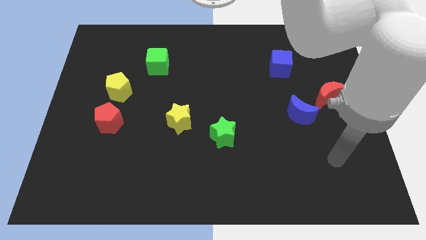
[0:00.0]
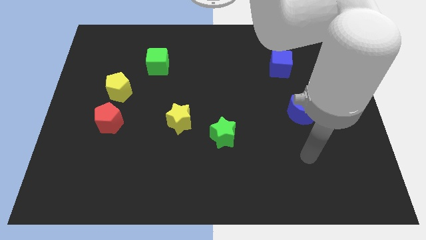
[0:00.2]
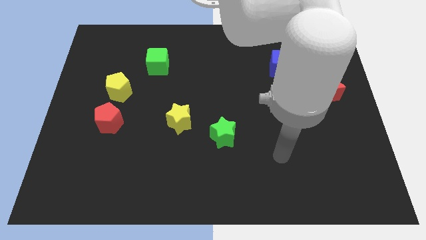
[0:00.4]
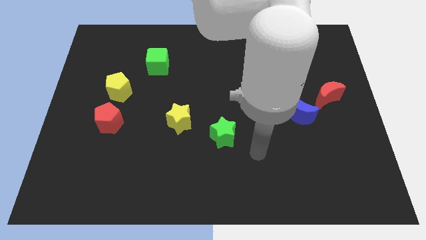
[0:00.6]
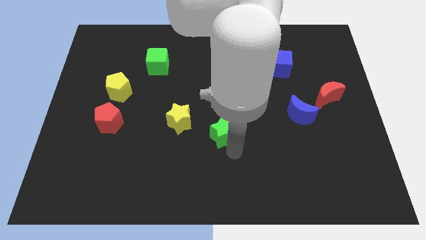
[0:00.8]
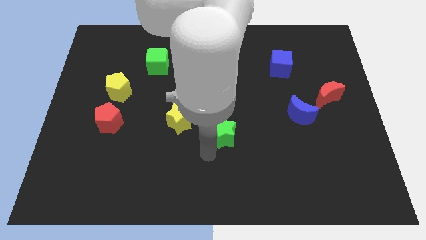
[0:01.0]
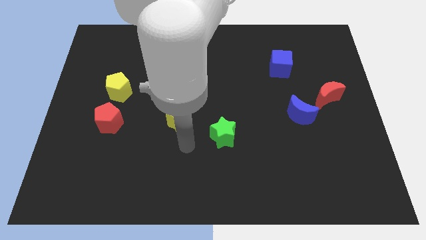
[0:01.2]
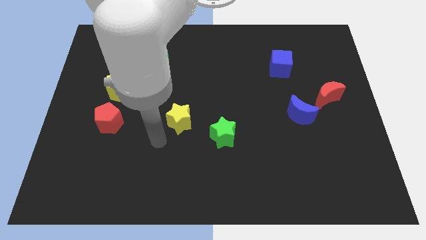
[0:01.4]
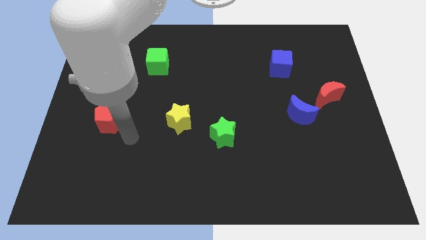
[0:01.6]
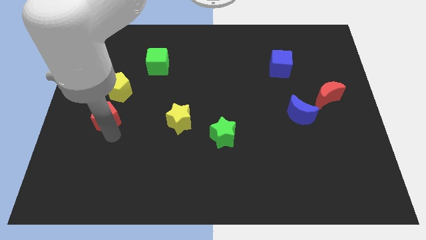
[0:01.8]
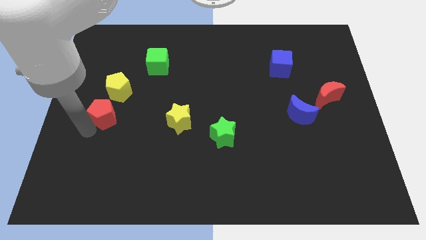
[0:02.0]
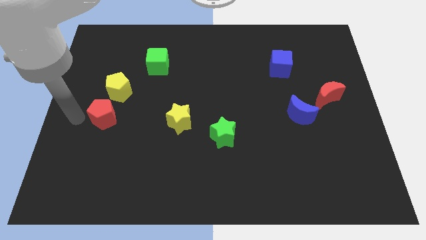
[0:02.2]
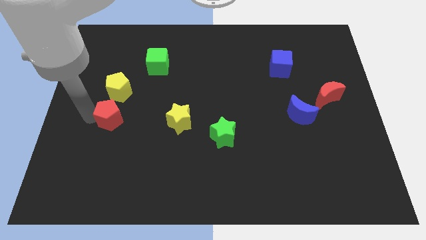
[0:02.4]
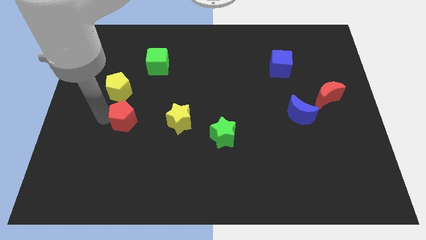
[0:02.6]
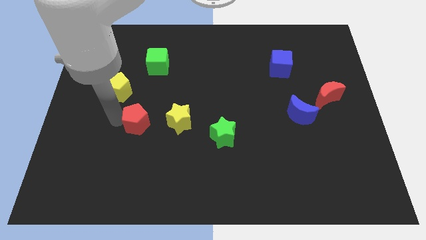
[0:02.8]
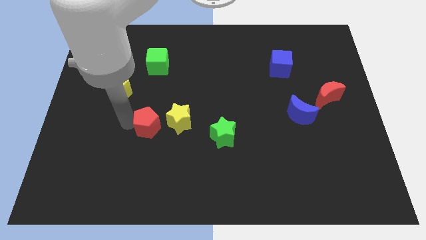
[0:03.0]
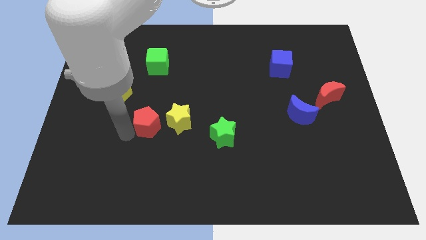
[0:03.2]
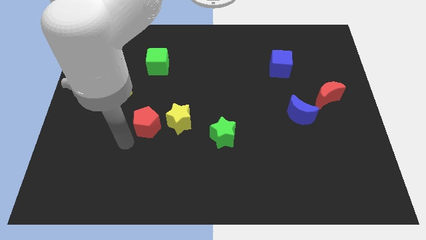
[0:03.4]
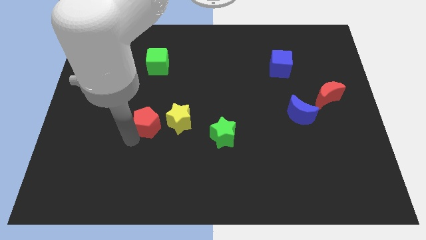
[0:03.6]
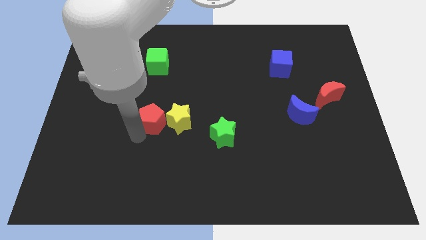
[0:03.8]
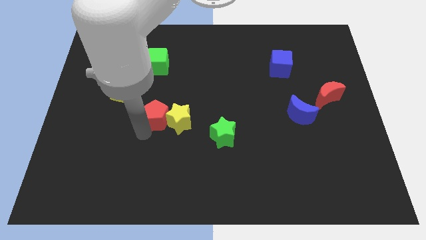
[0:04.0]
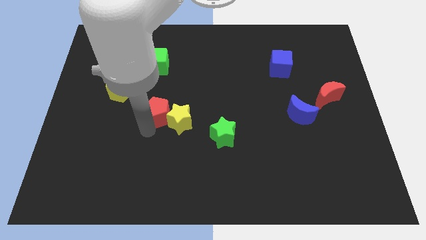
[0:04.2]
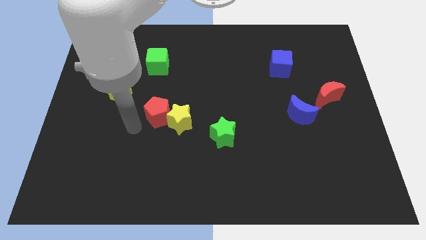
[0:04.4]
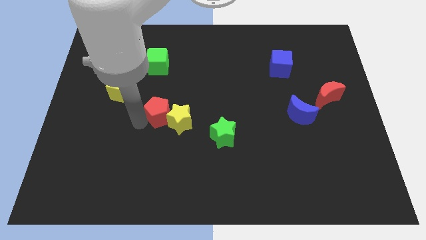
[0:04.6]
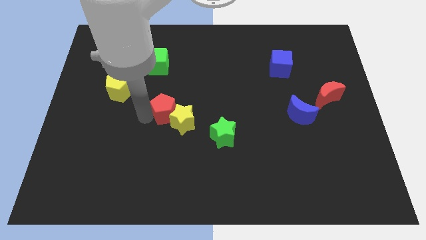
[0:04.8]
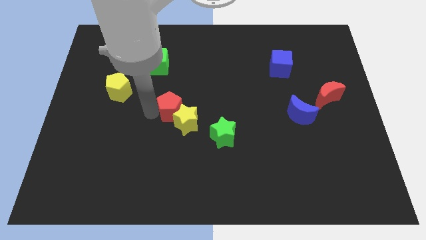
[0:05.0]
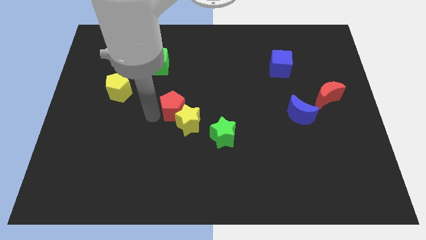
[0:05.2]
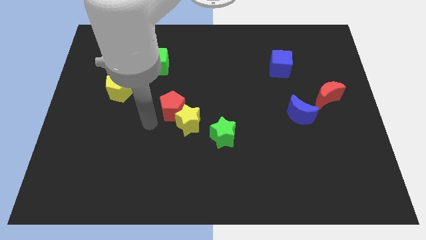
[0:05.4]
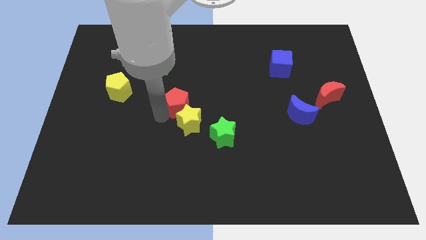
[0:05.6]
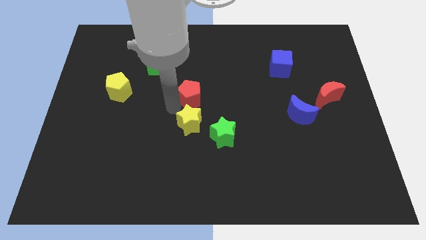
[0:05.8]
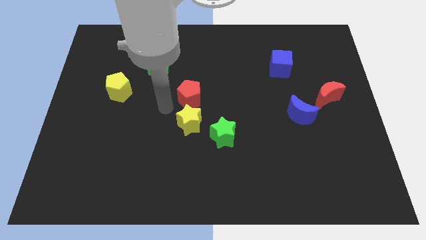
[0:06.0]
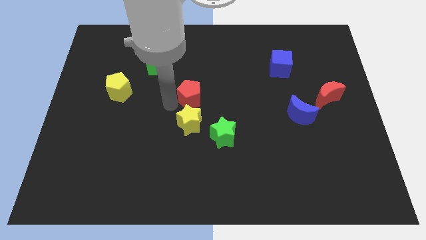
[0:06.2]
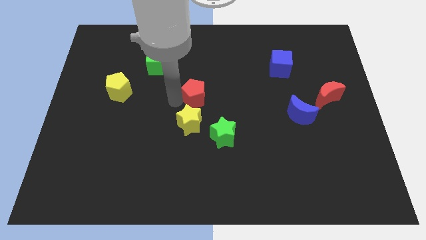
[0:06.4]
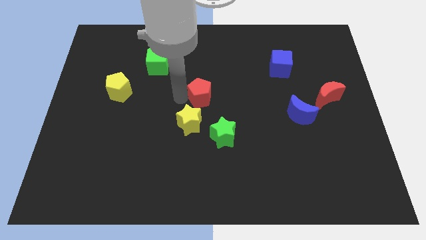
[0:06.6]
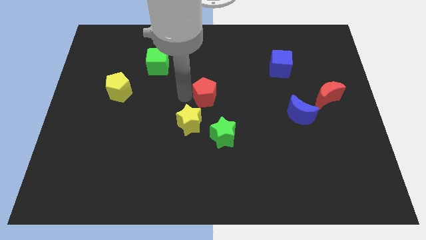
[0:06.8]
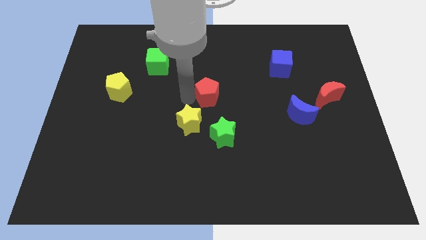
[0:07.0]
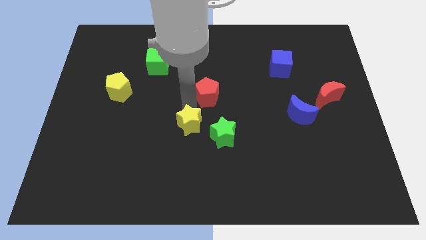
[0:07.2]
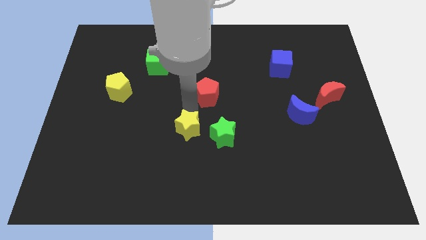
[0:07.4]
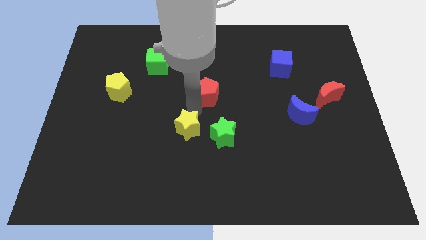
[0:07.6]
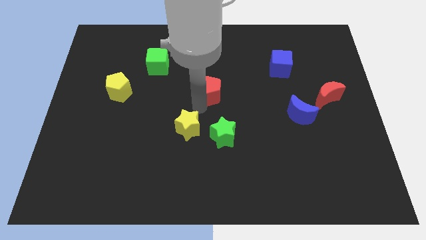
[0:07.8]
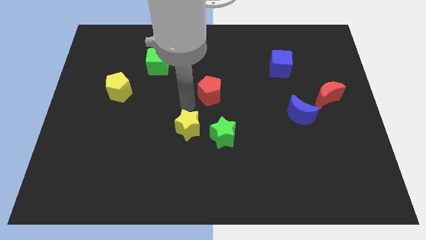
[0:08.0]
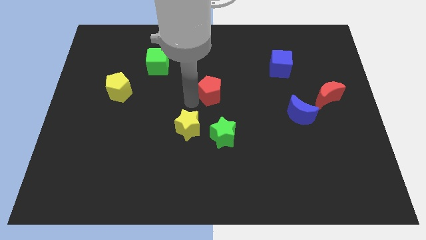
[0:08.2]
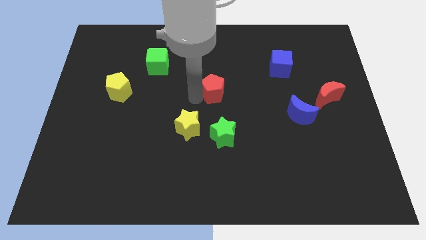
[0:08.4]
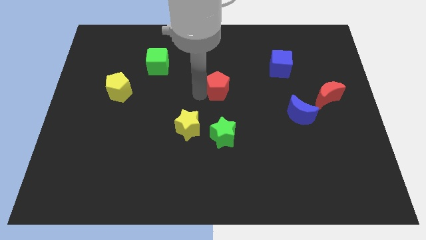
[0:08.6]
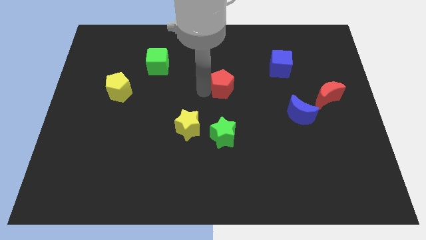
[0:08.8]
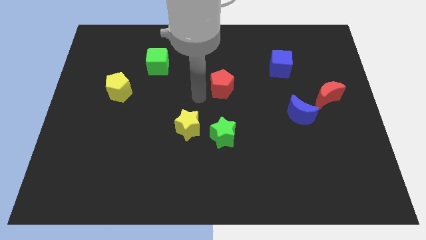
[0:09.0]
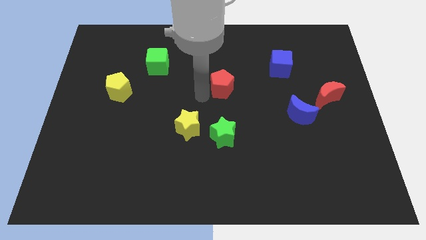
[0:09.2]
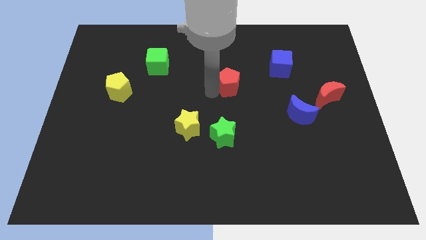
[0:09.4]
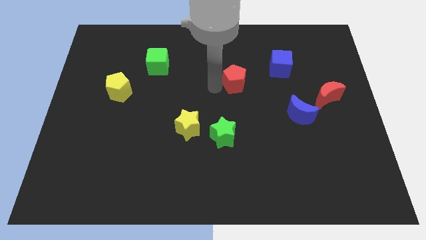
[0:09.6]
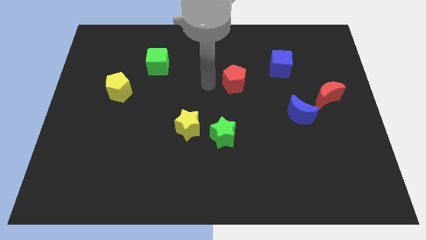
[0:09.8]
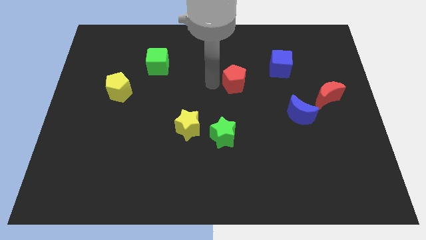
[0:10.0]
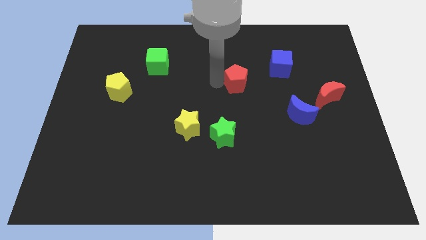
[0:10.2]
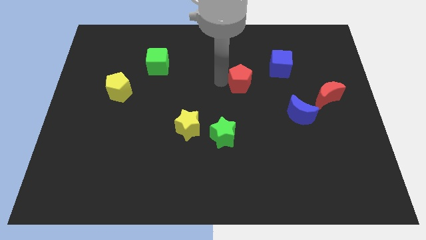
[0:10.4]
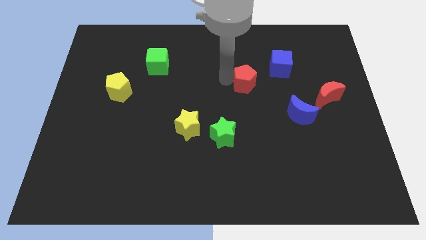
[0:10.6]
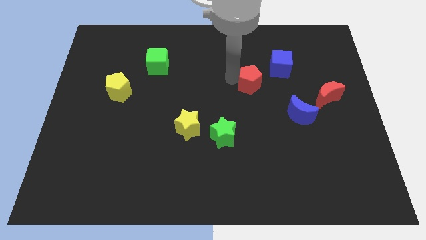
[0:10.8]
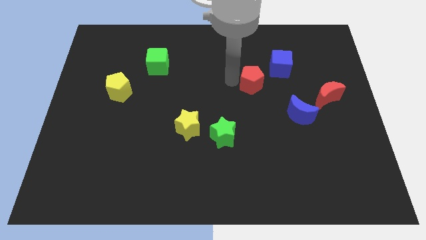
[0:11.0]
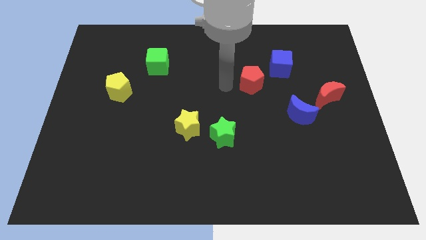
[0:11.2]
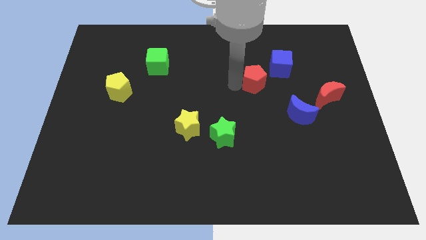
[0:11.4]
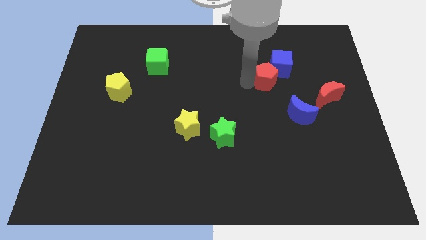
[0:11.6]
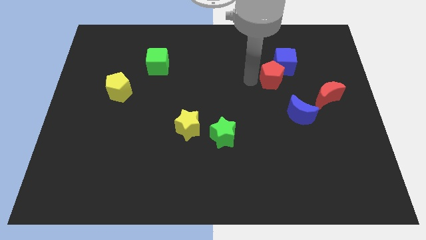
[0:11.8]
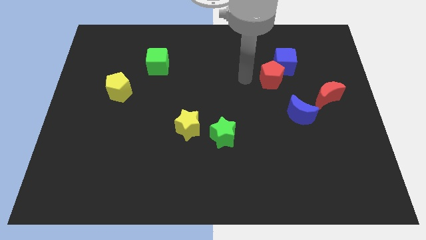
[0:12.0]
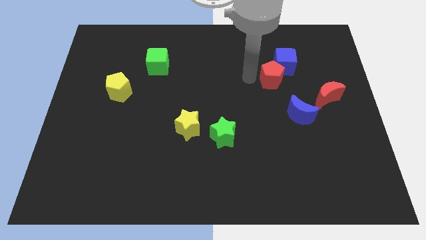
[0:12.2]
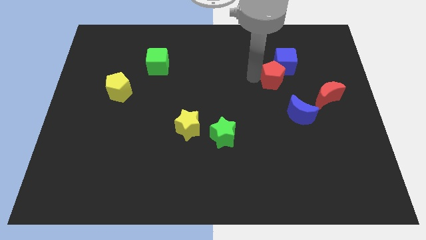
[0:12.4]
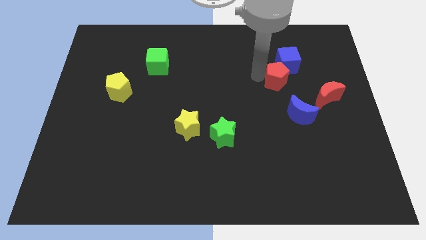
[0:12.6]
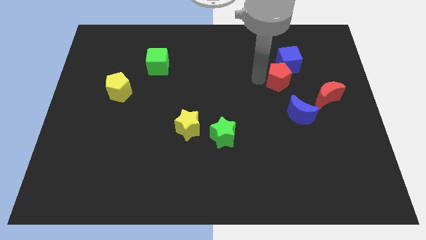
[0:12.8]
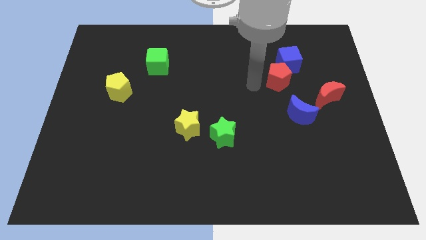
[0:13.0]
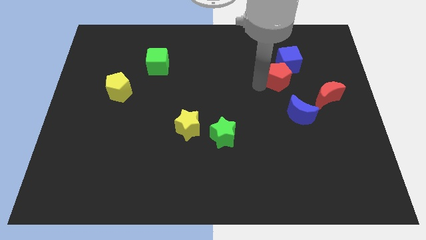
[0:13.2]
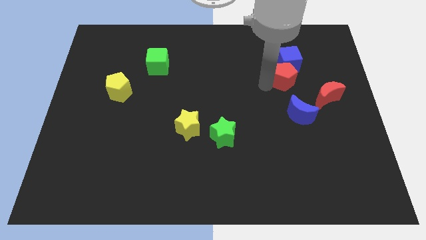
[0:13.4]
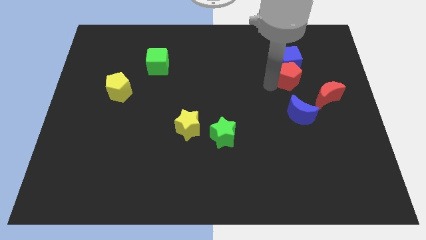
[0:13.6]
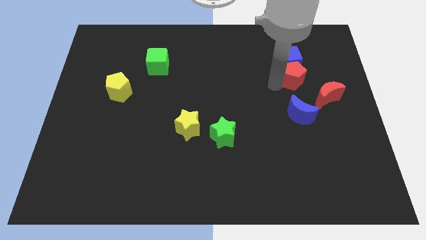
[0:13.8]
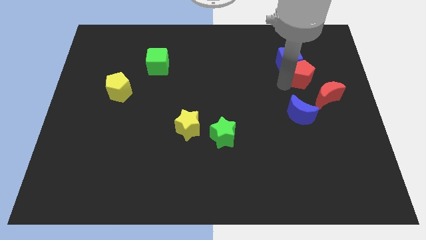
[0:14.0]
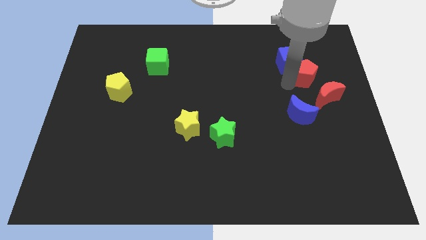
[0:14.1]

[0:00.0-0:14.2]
push the red pentagon right of the blue cube

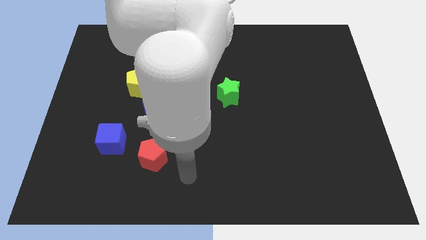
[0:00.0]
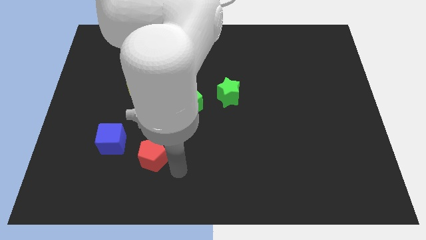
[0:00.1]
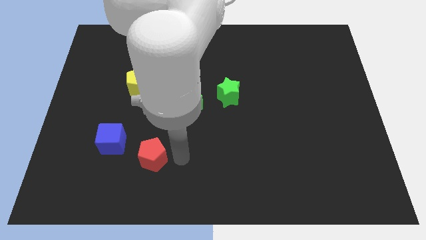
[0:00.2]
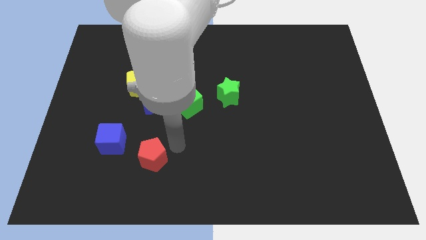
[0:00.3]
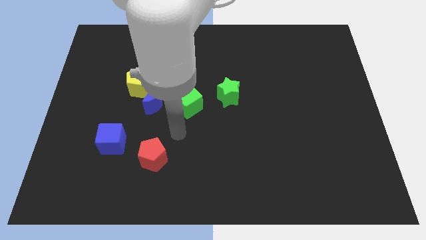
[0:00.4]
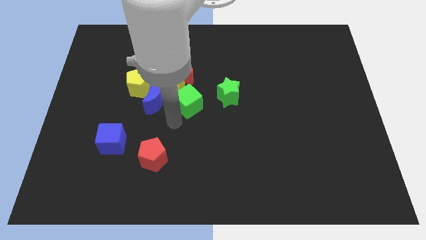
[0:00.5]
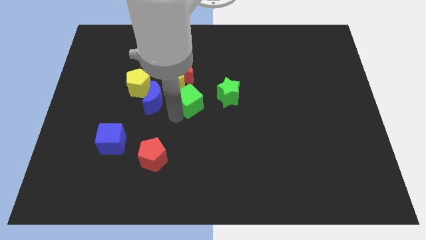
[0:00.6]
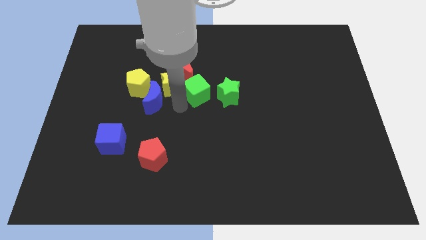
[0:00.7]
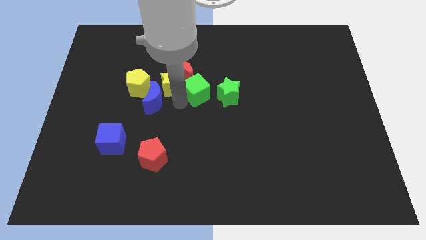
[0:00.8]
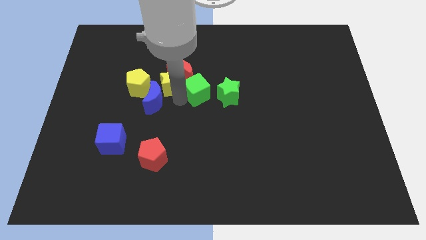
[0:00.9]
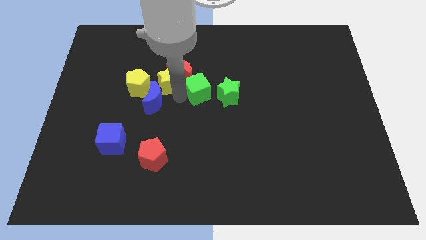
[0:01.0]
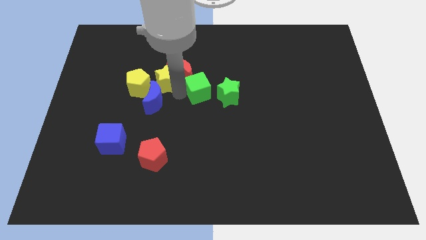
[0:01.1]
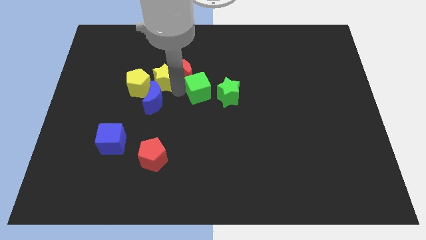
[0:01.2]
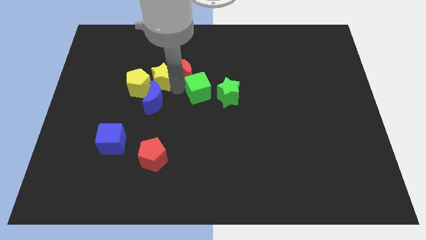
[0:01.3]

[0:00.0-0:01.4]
slide the yellow star diagonally up and to the left of the red moon
